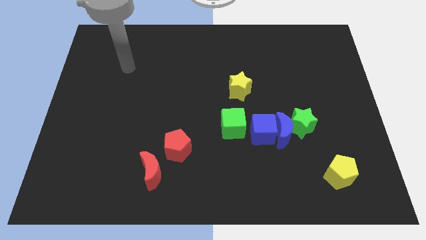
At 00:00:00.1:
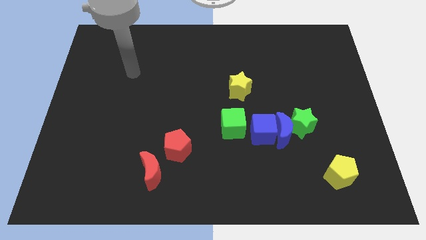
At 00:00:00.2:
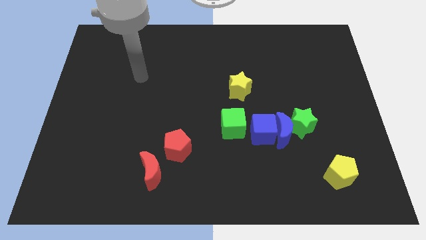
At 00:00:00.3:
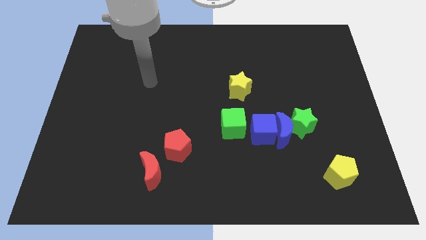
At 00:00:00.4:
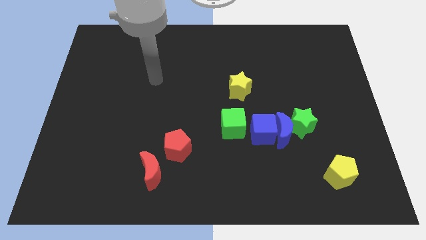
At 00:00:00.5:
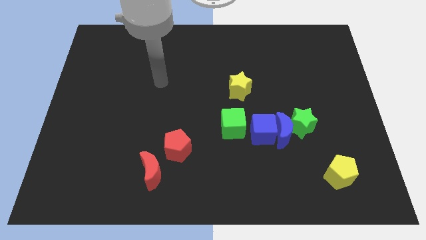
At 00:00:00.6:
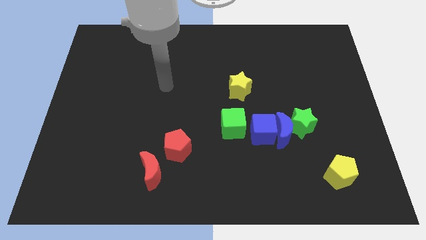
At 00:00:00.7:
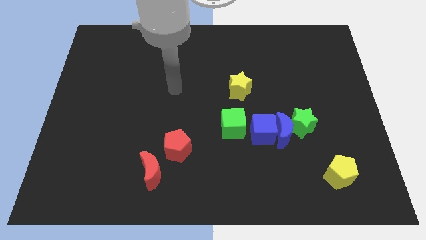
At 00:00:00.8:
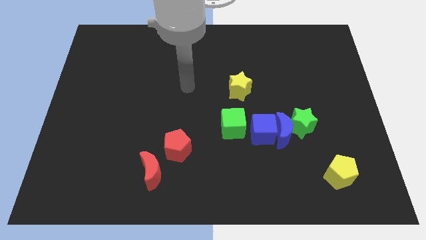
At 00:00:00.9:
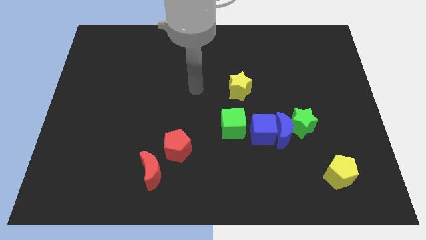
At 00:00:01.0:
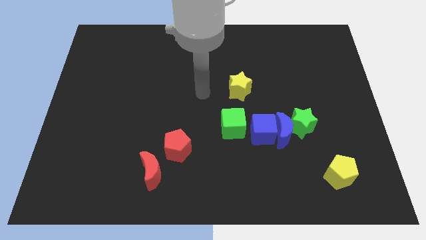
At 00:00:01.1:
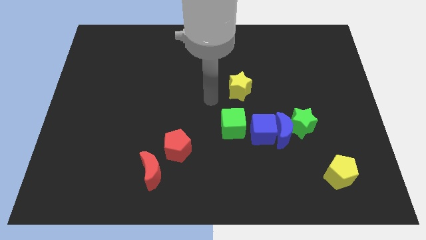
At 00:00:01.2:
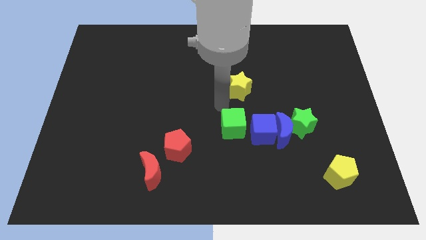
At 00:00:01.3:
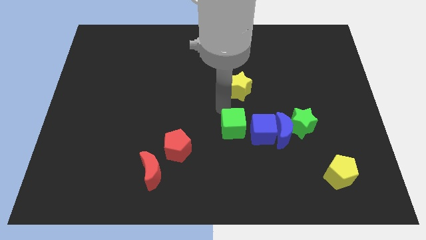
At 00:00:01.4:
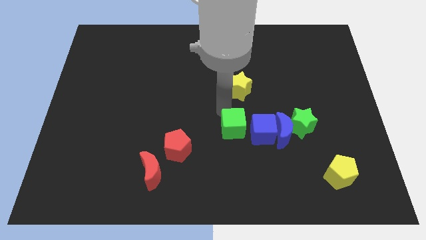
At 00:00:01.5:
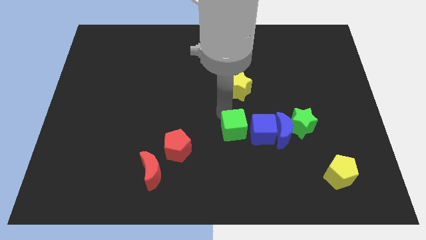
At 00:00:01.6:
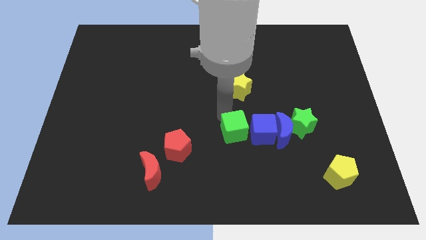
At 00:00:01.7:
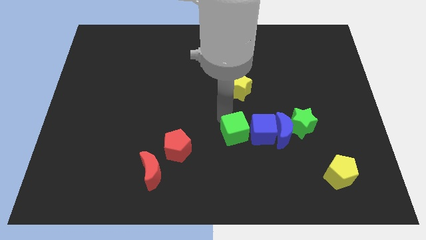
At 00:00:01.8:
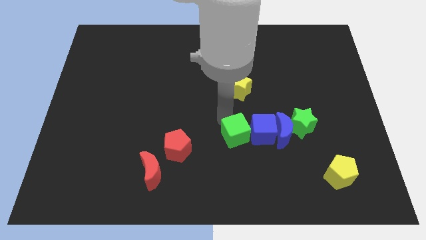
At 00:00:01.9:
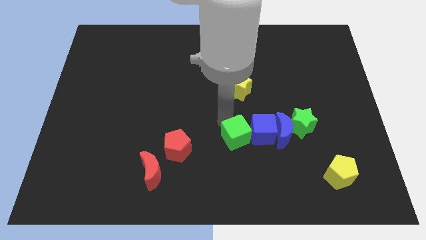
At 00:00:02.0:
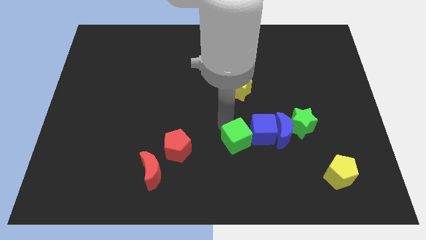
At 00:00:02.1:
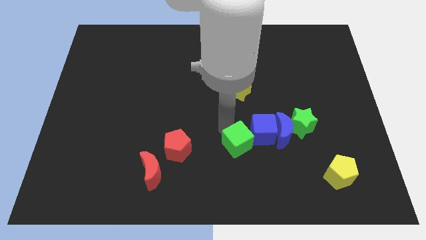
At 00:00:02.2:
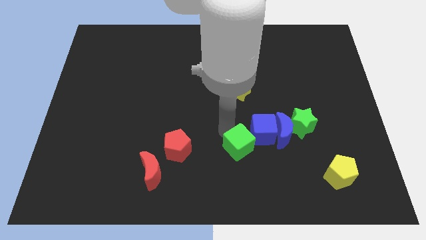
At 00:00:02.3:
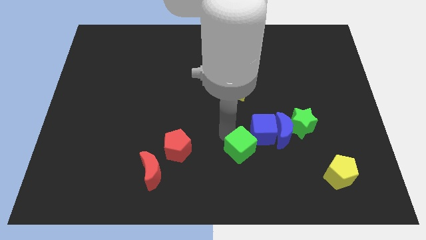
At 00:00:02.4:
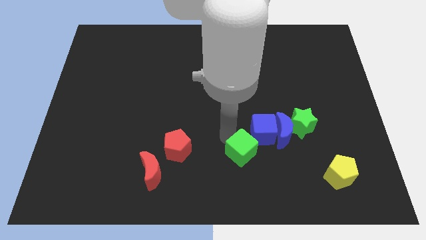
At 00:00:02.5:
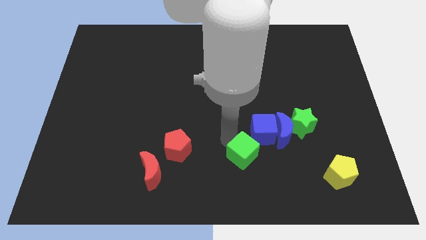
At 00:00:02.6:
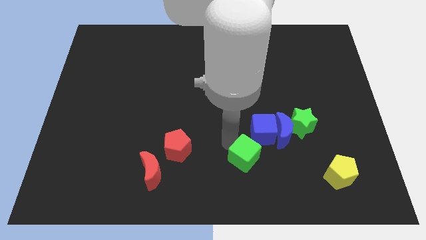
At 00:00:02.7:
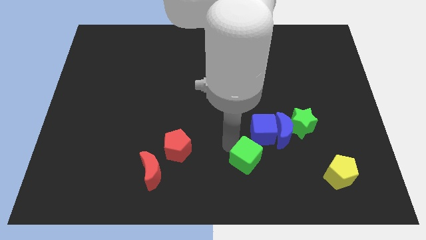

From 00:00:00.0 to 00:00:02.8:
move the green cube a little down and then to the right

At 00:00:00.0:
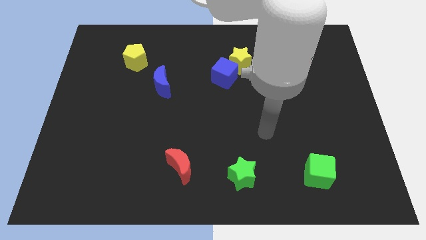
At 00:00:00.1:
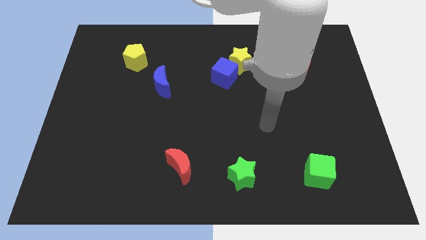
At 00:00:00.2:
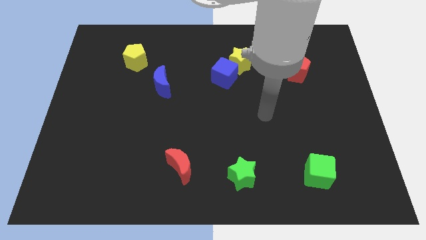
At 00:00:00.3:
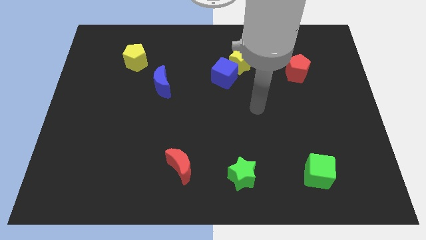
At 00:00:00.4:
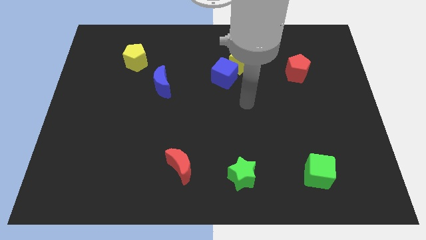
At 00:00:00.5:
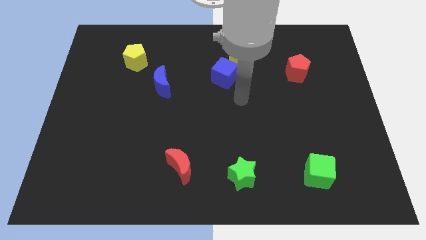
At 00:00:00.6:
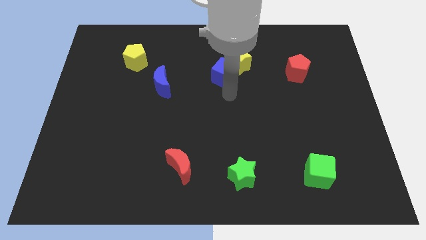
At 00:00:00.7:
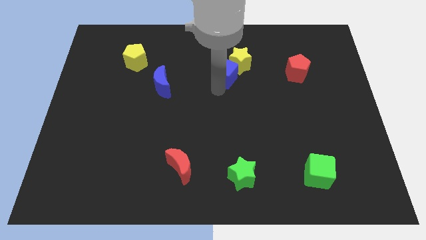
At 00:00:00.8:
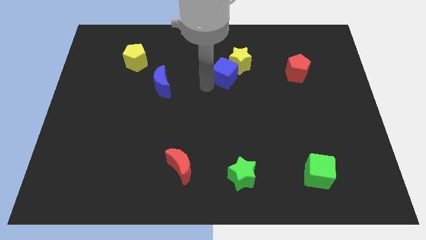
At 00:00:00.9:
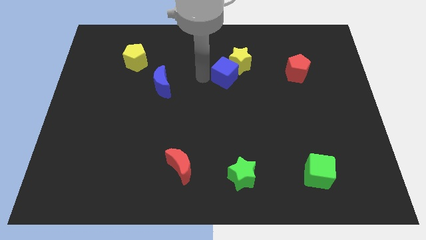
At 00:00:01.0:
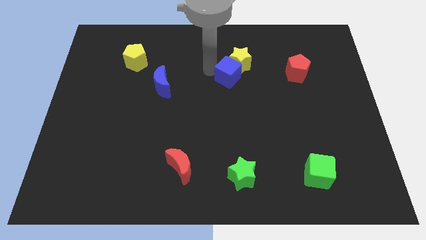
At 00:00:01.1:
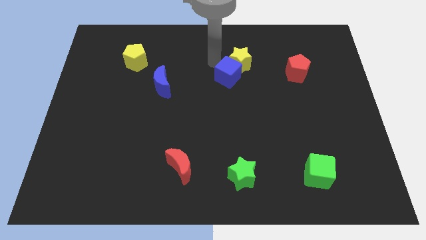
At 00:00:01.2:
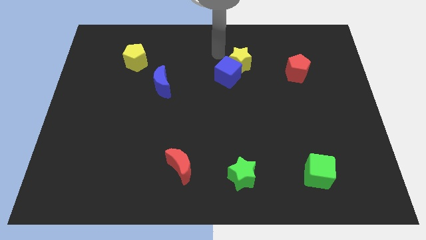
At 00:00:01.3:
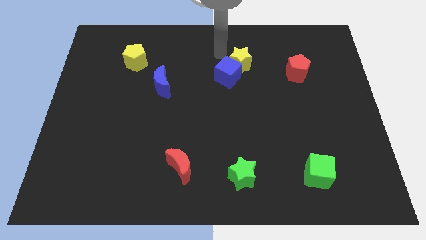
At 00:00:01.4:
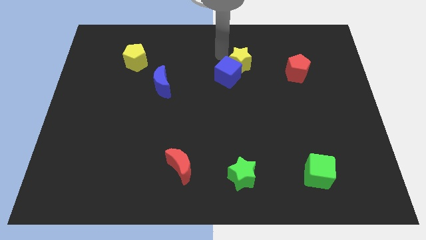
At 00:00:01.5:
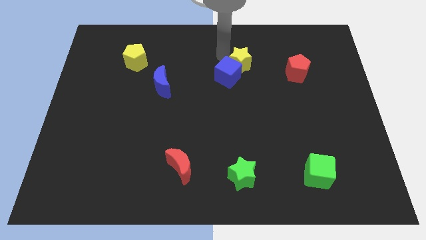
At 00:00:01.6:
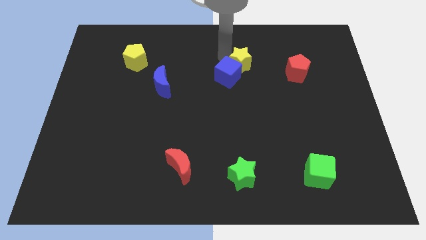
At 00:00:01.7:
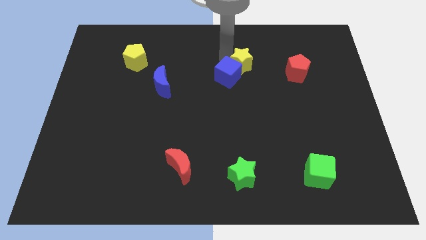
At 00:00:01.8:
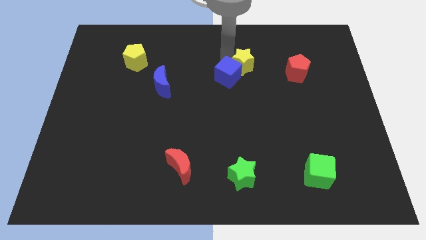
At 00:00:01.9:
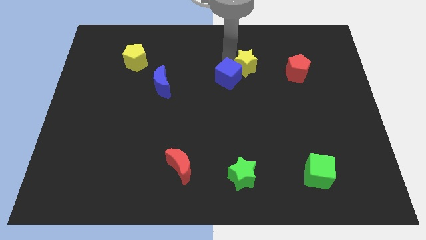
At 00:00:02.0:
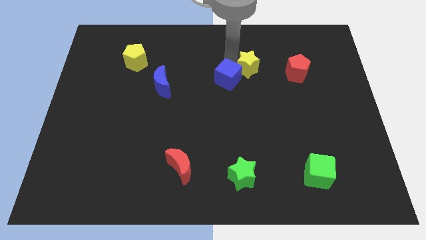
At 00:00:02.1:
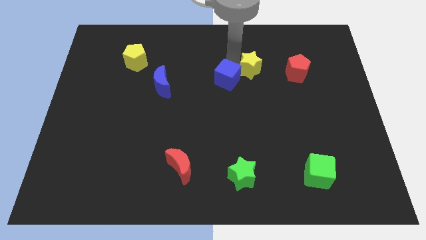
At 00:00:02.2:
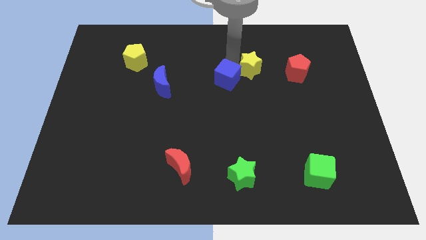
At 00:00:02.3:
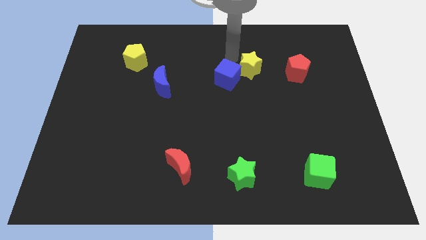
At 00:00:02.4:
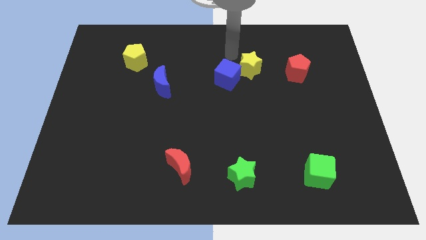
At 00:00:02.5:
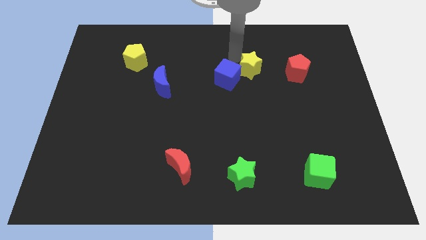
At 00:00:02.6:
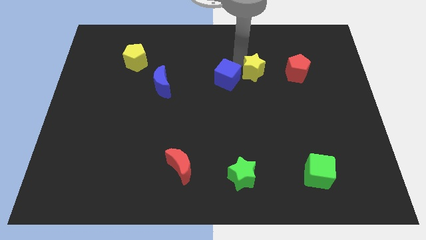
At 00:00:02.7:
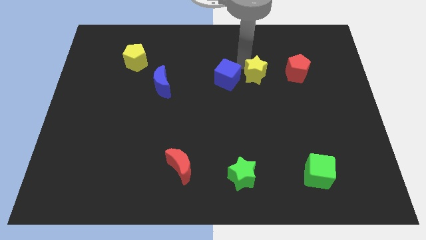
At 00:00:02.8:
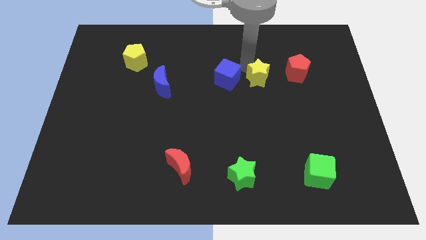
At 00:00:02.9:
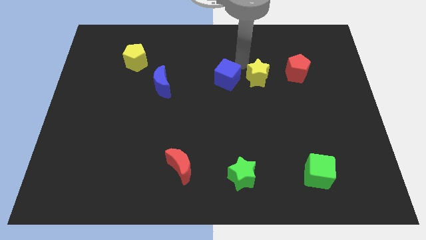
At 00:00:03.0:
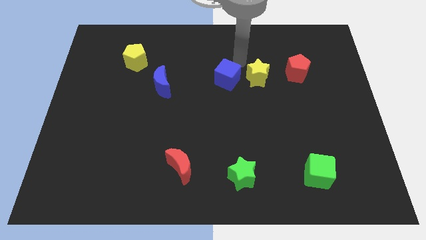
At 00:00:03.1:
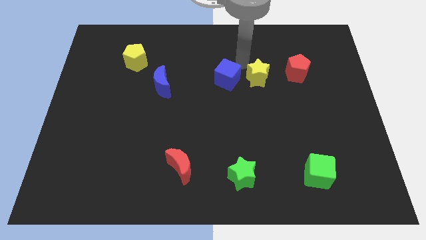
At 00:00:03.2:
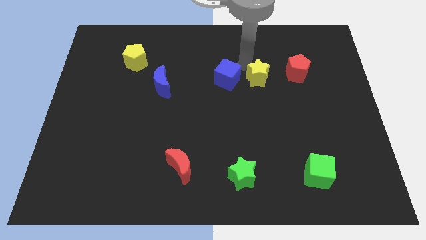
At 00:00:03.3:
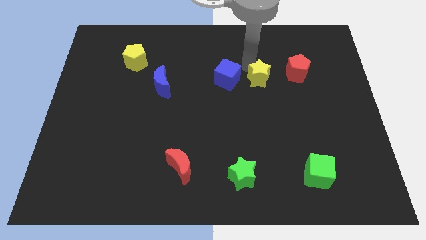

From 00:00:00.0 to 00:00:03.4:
slide the yellow star slightly downwards and then to the right

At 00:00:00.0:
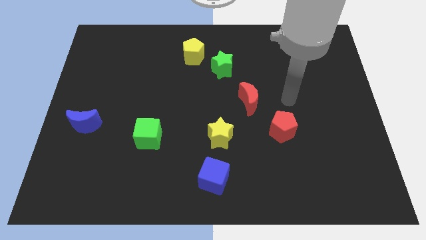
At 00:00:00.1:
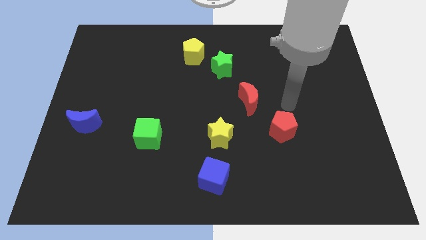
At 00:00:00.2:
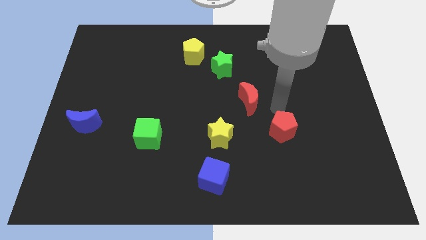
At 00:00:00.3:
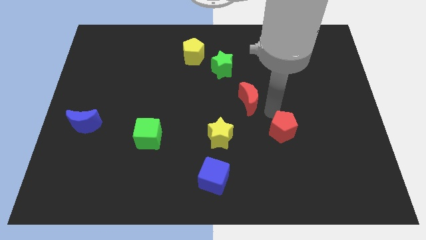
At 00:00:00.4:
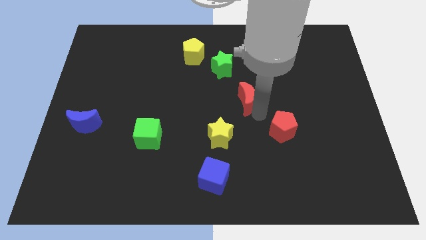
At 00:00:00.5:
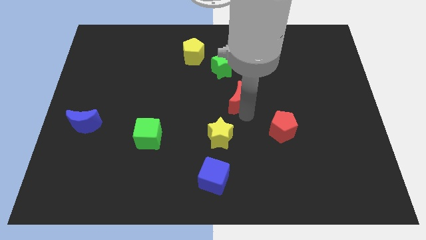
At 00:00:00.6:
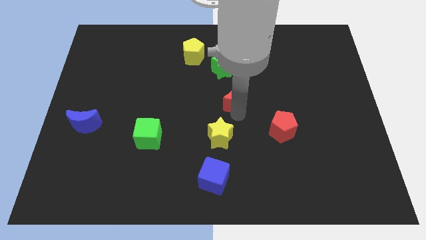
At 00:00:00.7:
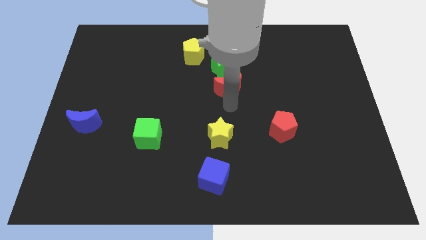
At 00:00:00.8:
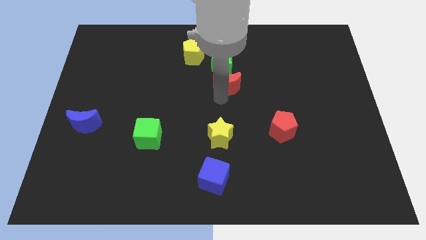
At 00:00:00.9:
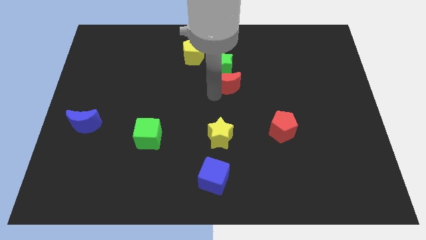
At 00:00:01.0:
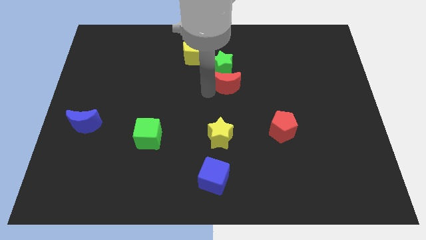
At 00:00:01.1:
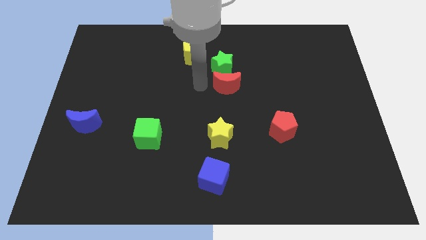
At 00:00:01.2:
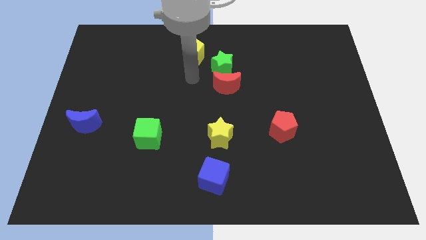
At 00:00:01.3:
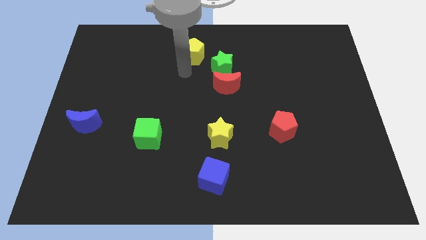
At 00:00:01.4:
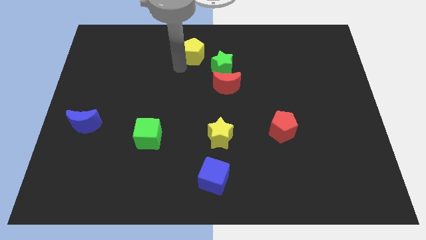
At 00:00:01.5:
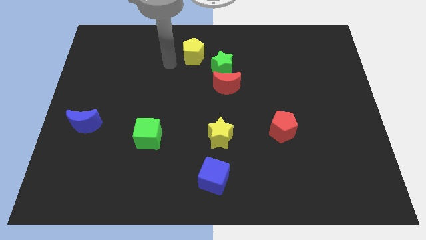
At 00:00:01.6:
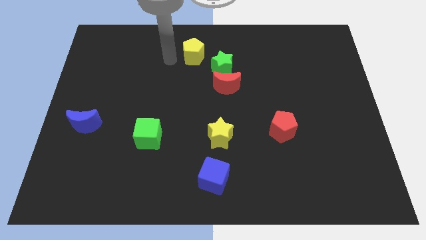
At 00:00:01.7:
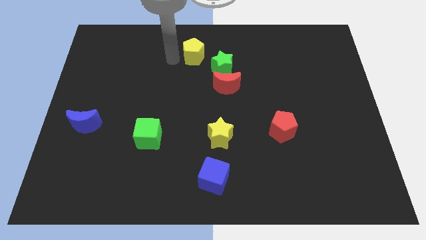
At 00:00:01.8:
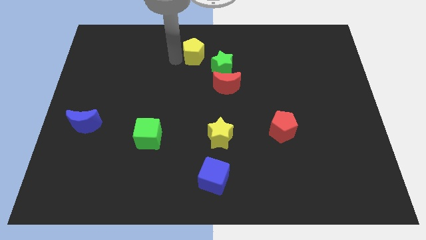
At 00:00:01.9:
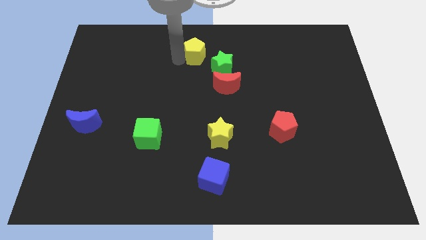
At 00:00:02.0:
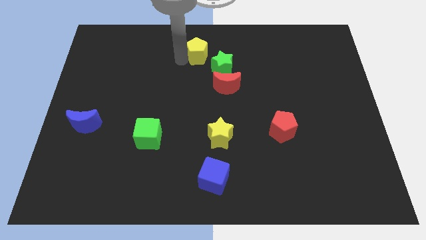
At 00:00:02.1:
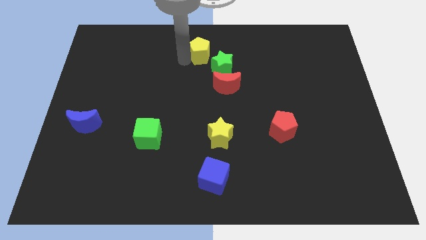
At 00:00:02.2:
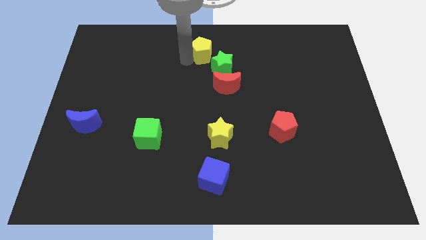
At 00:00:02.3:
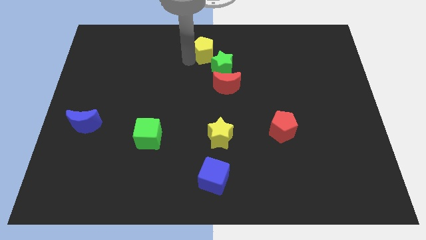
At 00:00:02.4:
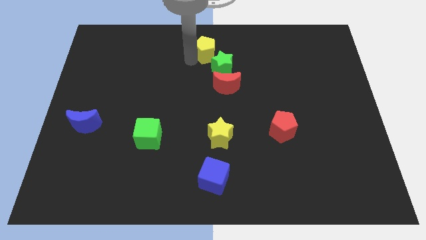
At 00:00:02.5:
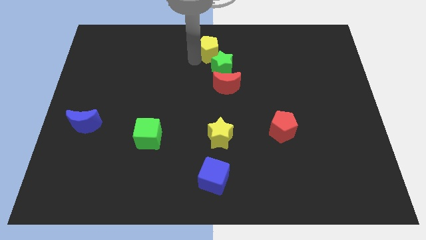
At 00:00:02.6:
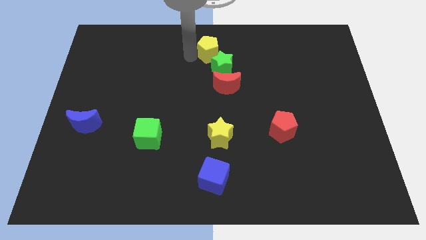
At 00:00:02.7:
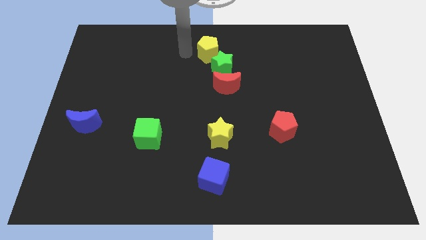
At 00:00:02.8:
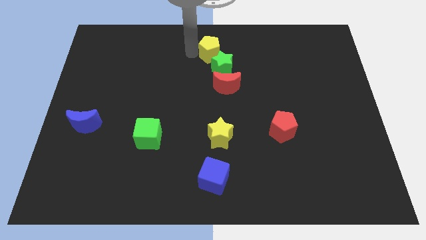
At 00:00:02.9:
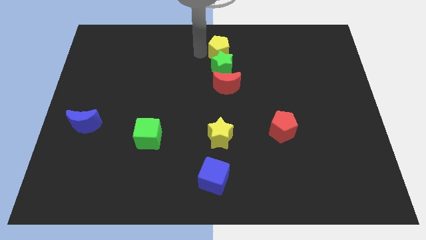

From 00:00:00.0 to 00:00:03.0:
move the yellow pentagon slightly right
